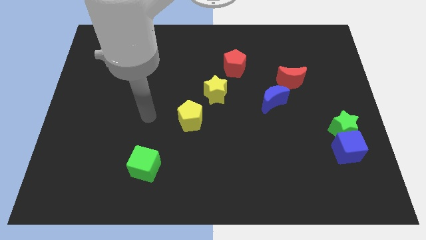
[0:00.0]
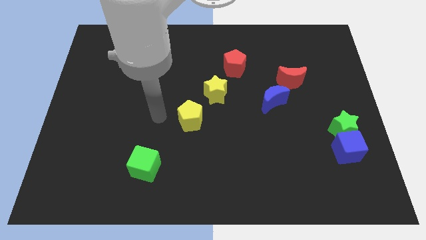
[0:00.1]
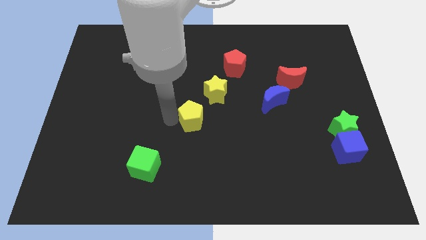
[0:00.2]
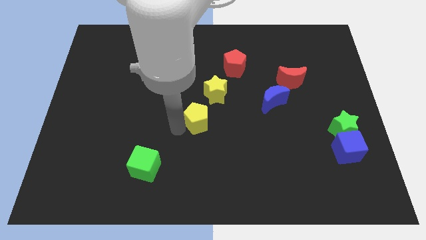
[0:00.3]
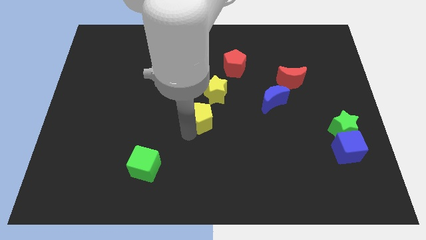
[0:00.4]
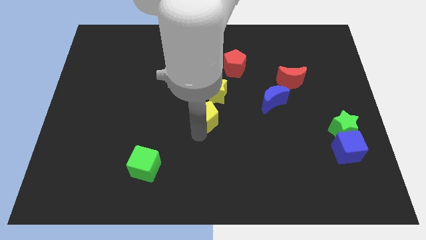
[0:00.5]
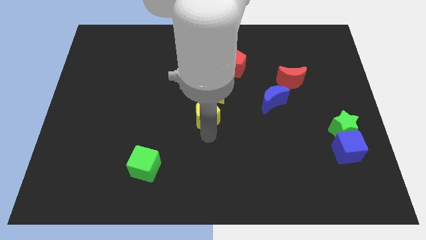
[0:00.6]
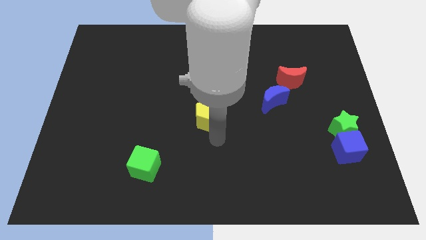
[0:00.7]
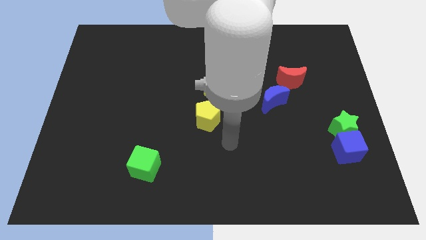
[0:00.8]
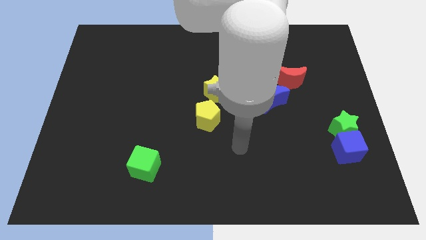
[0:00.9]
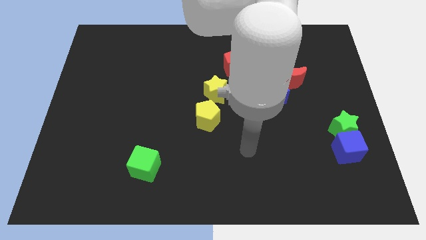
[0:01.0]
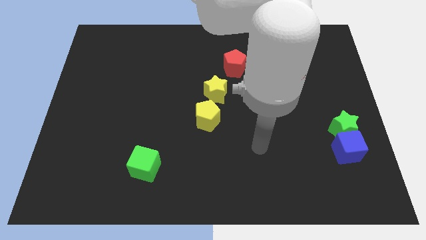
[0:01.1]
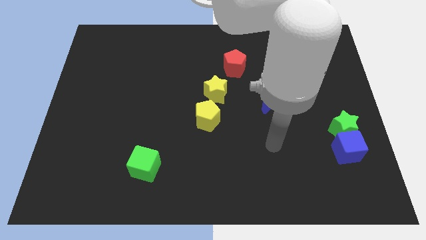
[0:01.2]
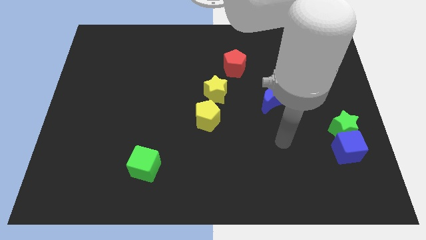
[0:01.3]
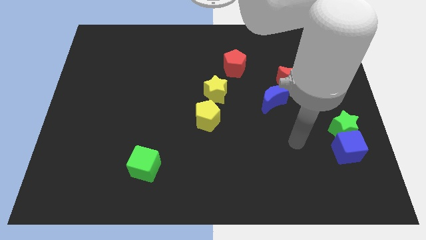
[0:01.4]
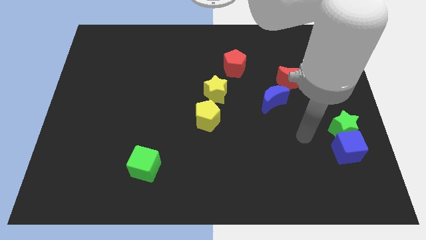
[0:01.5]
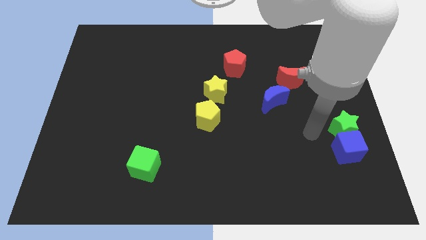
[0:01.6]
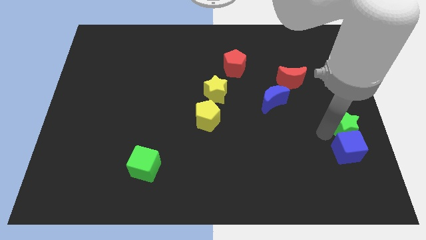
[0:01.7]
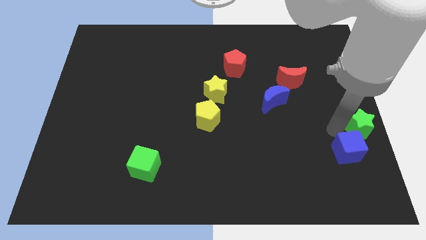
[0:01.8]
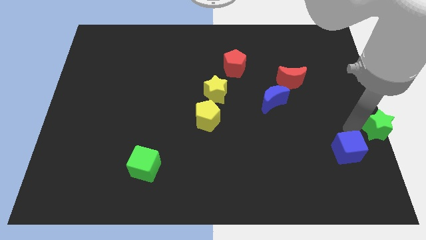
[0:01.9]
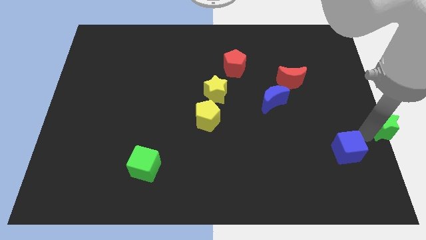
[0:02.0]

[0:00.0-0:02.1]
pull the blue cube apart from the green star

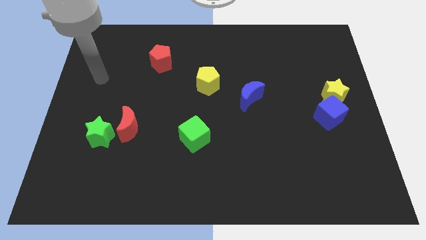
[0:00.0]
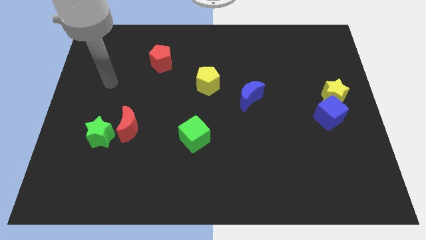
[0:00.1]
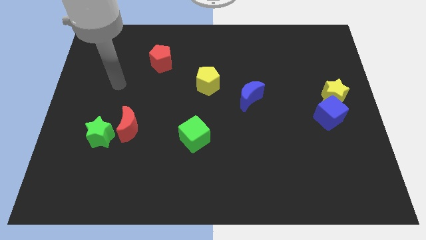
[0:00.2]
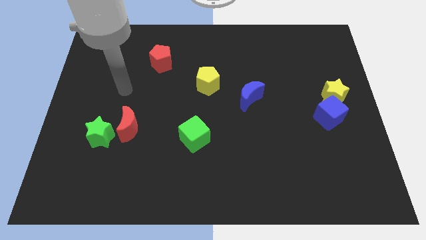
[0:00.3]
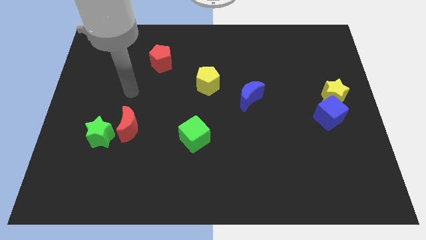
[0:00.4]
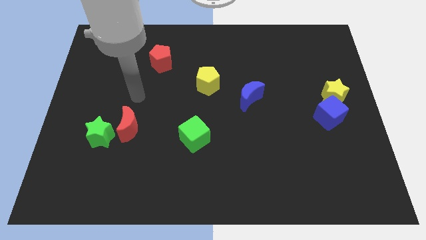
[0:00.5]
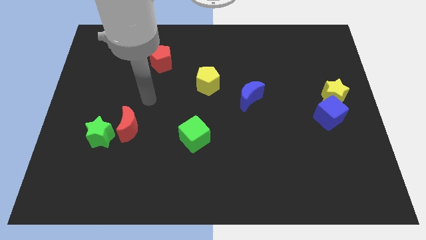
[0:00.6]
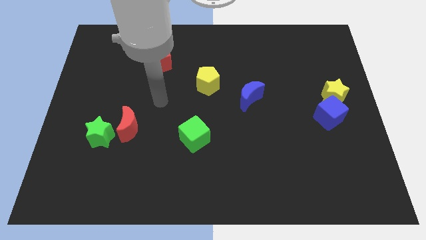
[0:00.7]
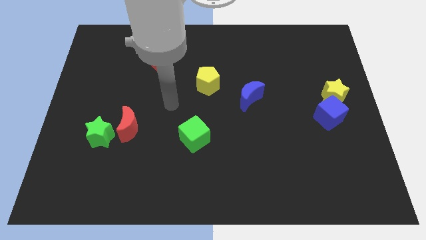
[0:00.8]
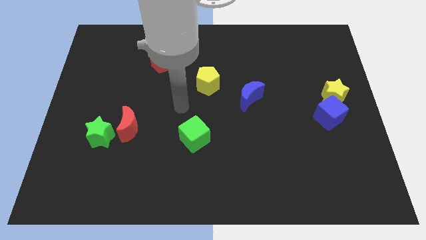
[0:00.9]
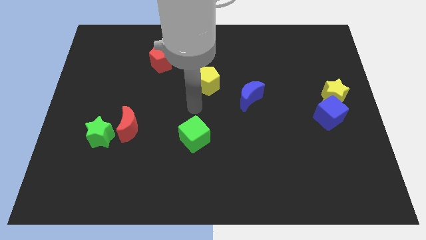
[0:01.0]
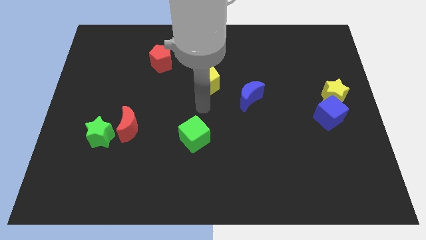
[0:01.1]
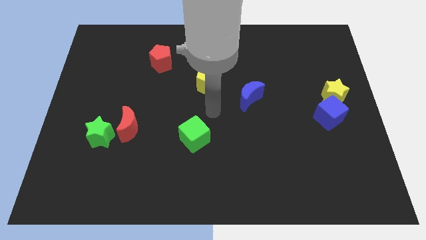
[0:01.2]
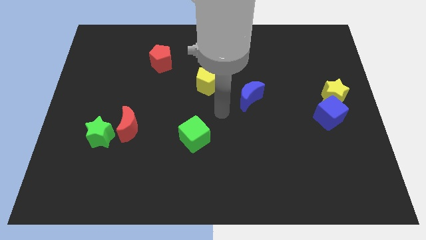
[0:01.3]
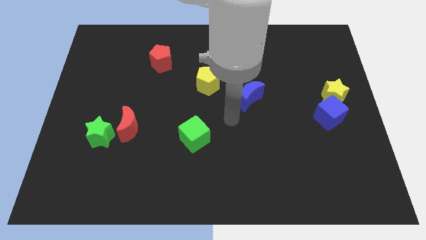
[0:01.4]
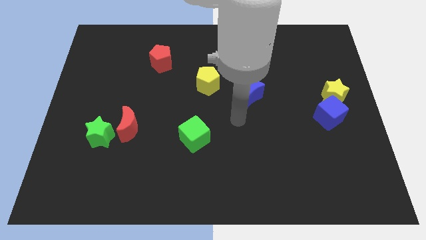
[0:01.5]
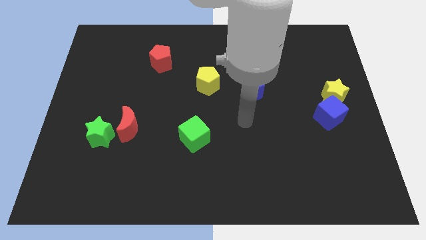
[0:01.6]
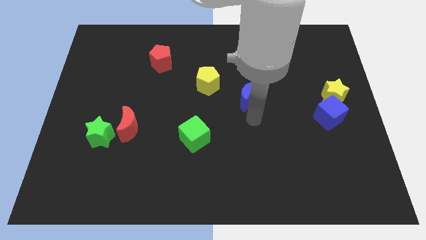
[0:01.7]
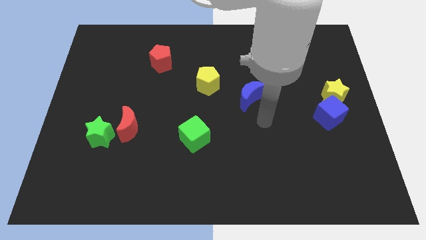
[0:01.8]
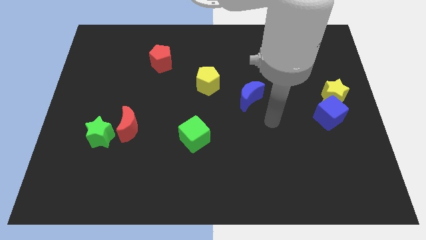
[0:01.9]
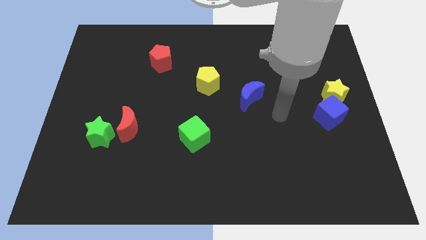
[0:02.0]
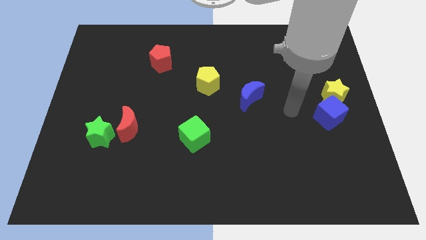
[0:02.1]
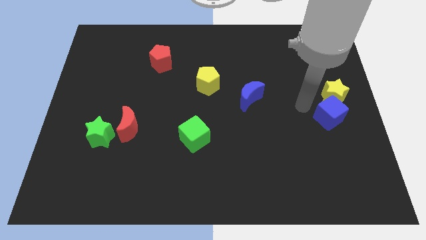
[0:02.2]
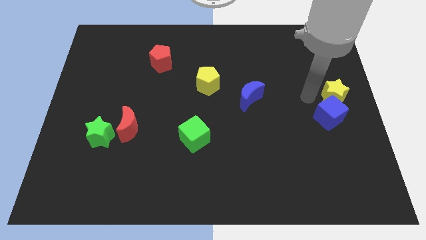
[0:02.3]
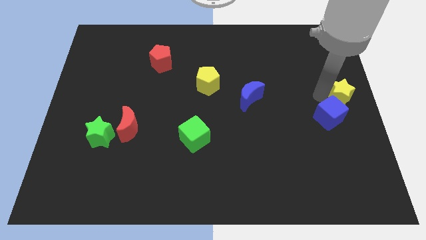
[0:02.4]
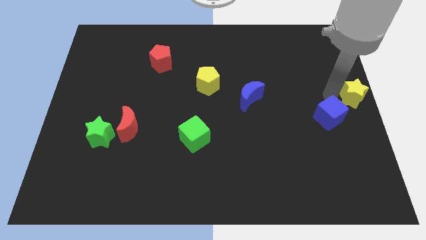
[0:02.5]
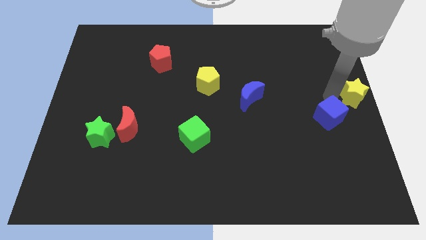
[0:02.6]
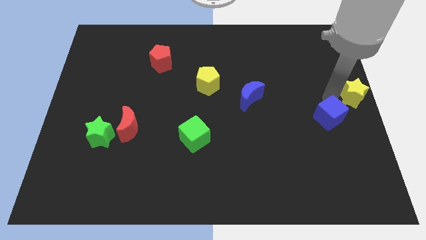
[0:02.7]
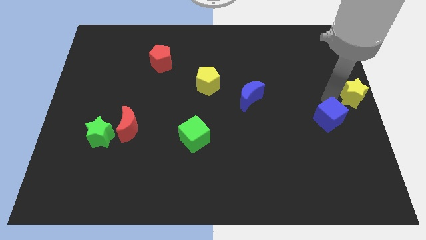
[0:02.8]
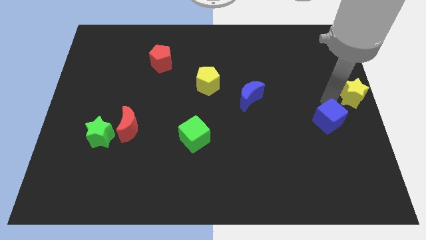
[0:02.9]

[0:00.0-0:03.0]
move the blue cube away from the yellow star

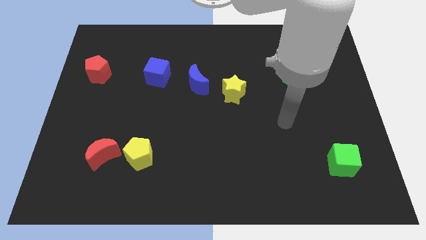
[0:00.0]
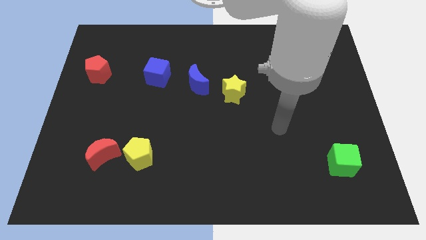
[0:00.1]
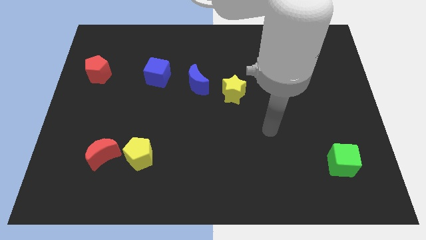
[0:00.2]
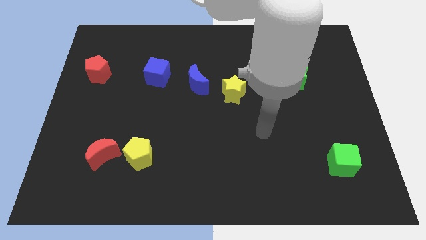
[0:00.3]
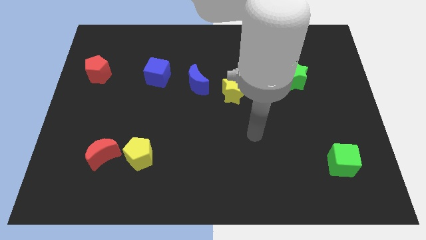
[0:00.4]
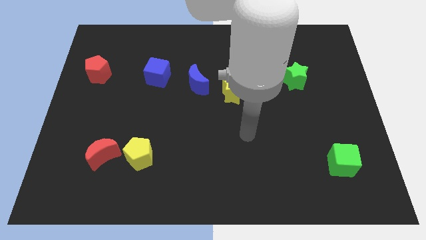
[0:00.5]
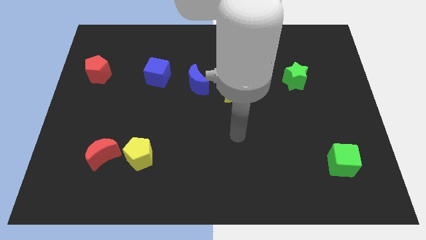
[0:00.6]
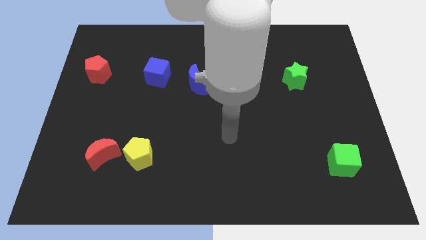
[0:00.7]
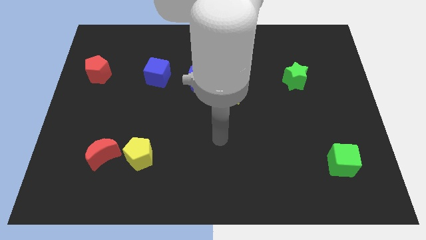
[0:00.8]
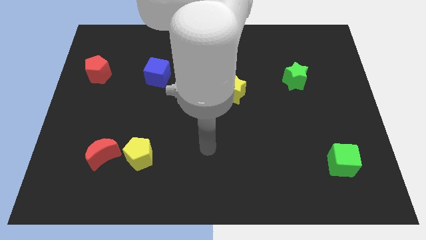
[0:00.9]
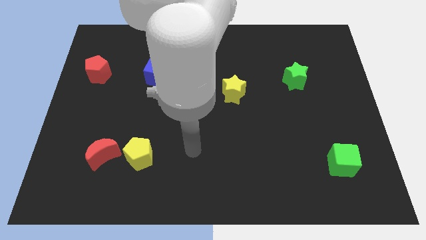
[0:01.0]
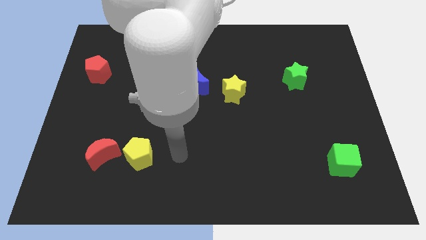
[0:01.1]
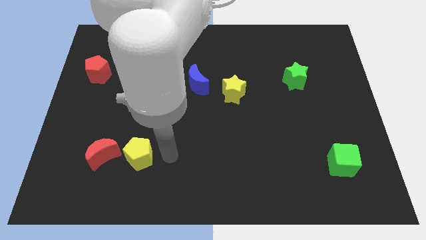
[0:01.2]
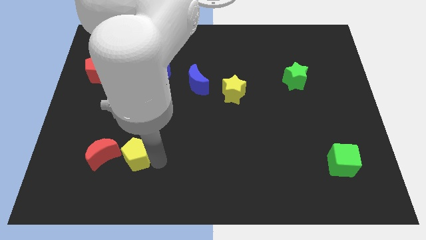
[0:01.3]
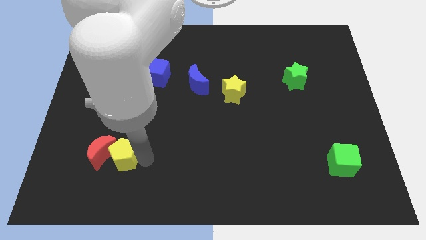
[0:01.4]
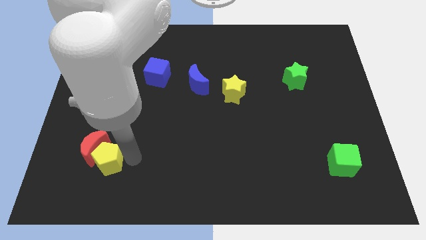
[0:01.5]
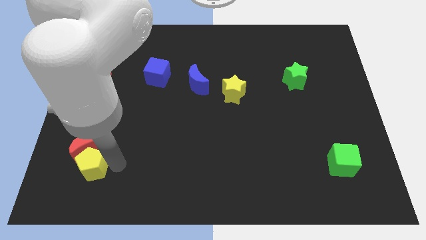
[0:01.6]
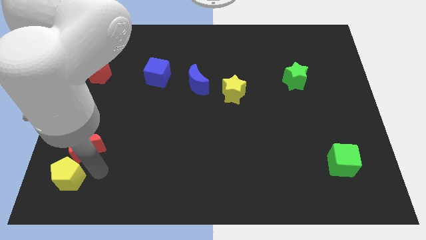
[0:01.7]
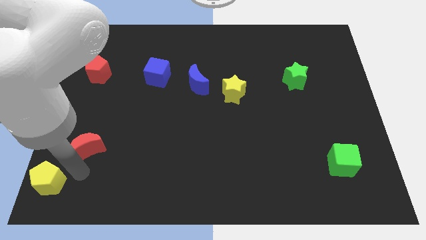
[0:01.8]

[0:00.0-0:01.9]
pull the red moon apart from the yellow pentagon

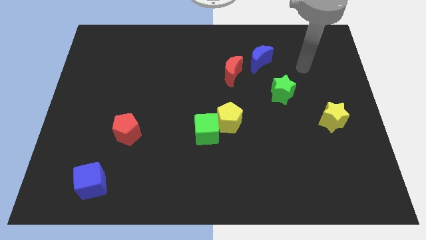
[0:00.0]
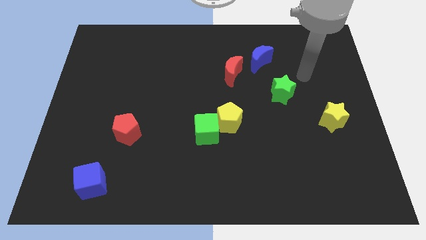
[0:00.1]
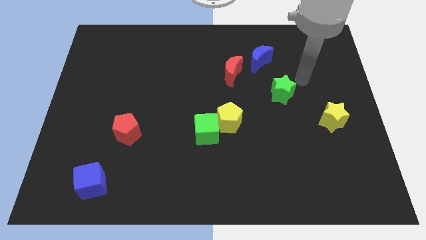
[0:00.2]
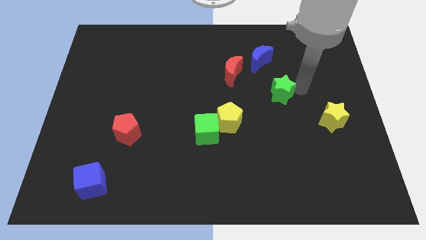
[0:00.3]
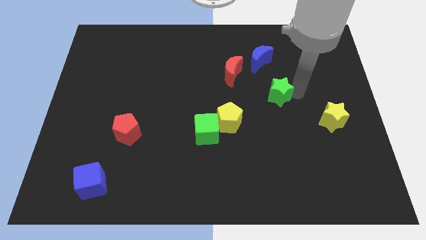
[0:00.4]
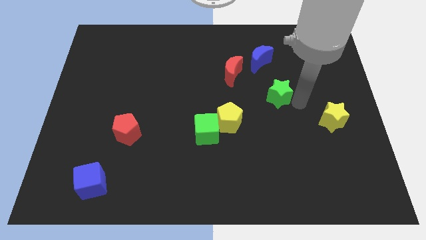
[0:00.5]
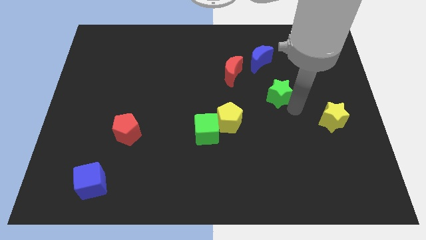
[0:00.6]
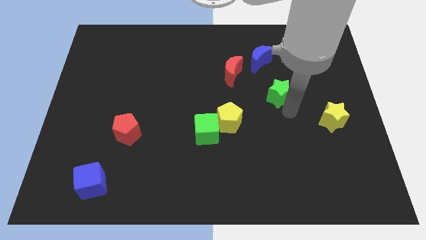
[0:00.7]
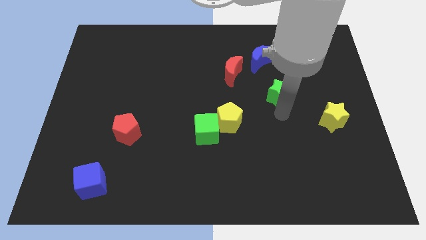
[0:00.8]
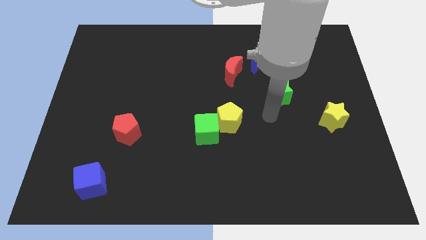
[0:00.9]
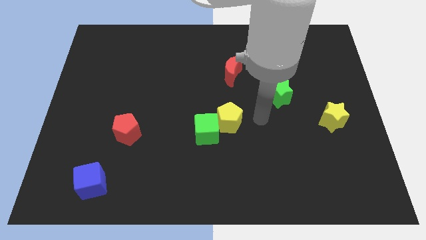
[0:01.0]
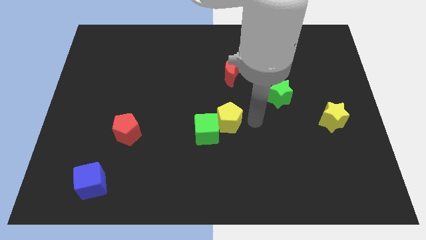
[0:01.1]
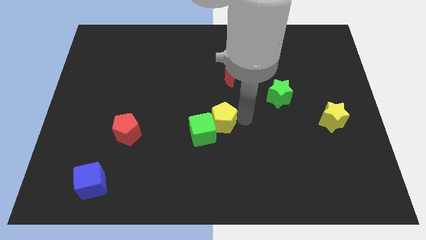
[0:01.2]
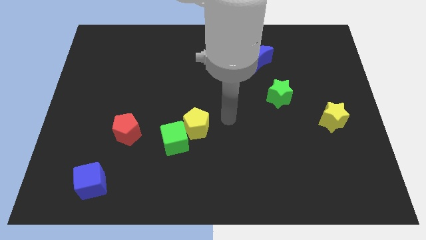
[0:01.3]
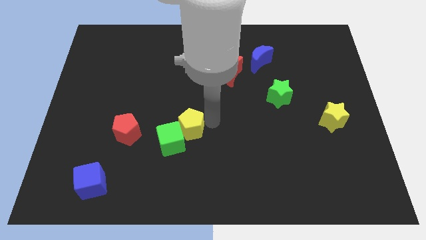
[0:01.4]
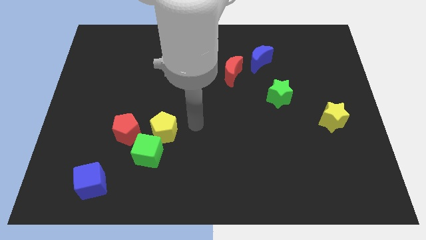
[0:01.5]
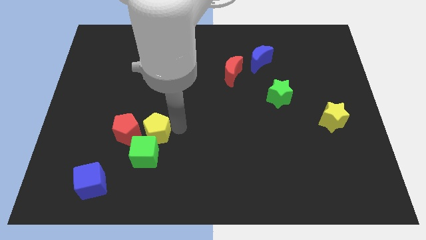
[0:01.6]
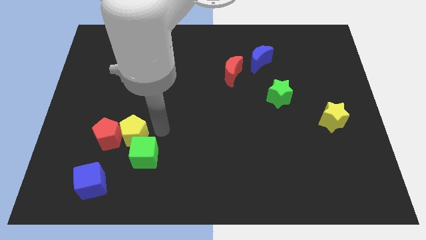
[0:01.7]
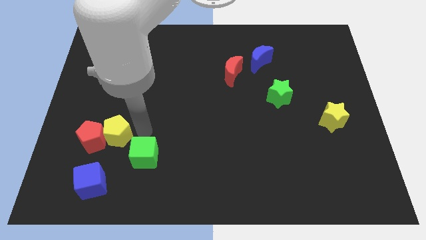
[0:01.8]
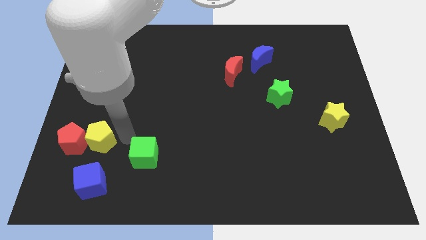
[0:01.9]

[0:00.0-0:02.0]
separate the green cube from the yellow pentagon

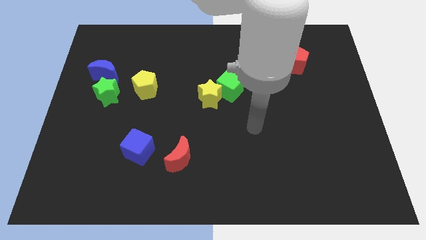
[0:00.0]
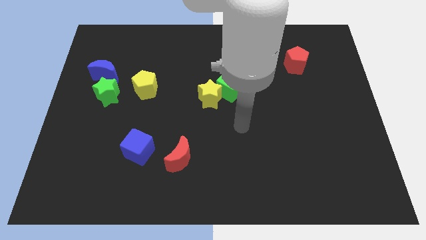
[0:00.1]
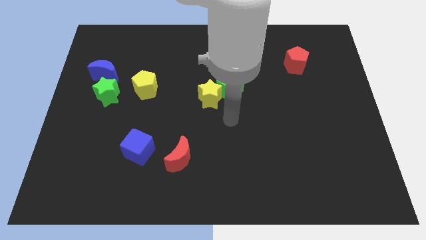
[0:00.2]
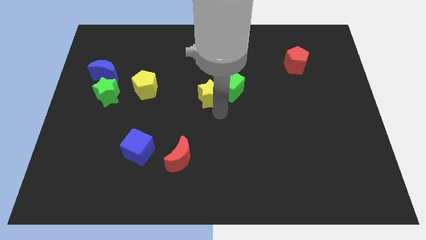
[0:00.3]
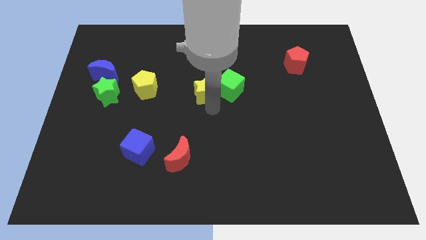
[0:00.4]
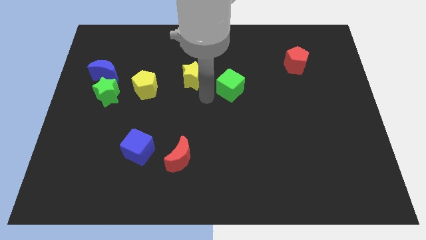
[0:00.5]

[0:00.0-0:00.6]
separate the green cube from the yellow star
